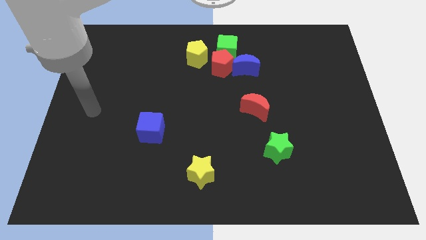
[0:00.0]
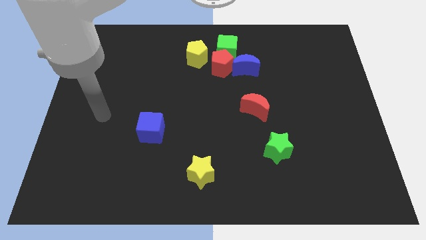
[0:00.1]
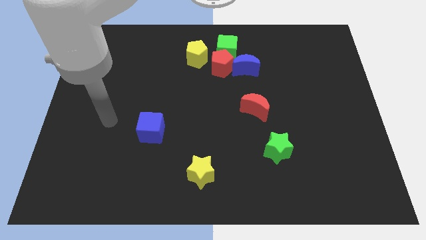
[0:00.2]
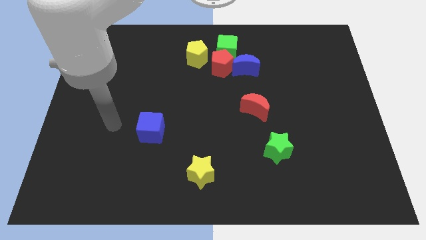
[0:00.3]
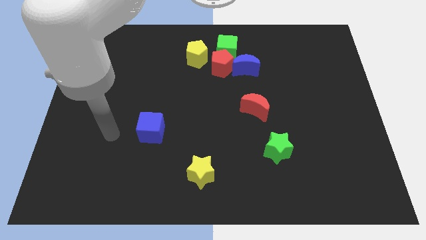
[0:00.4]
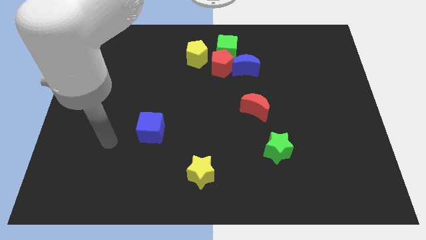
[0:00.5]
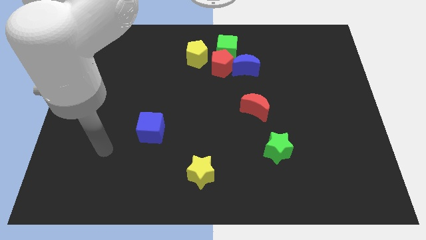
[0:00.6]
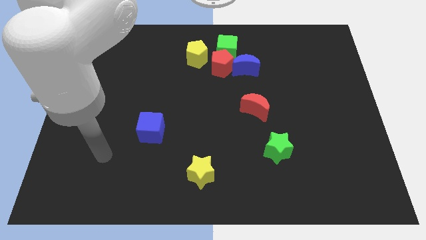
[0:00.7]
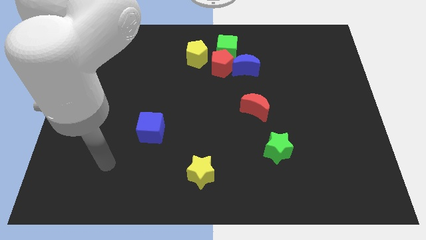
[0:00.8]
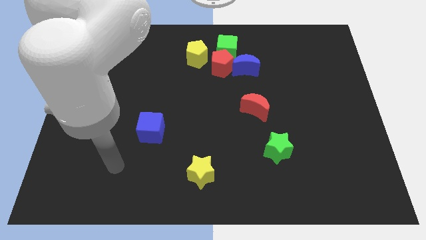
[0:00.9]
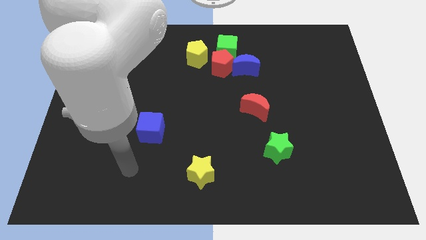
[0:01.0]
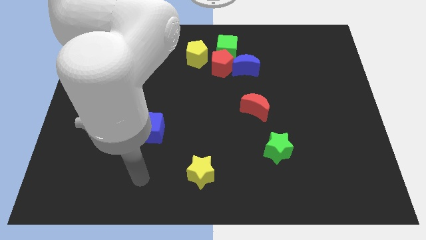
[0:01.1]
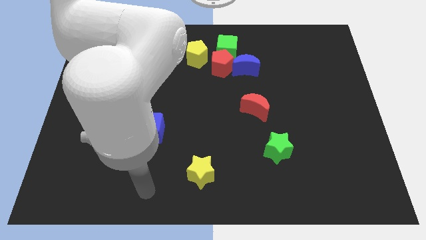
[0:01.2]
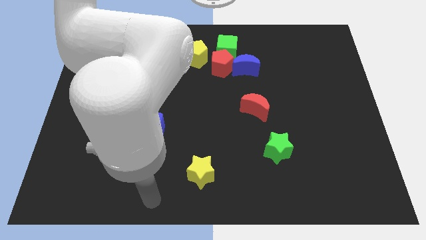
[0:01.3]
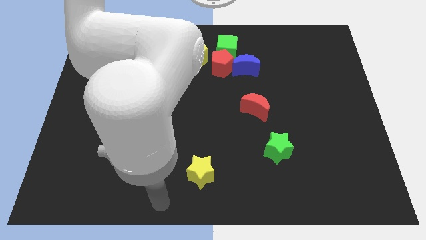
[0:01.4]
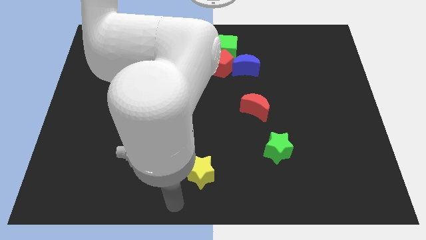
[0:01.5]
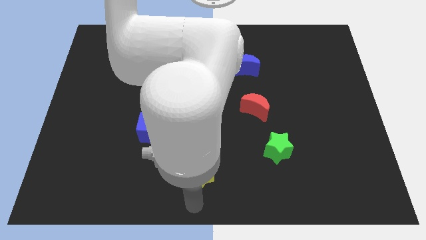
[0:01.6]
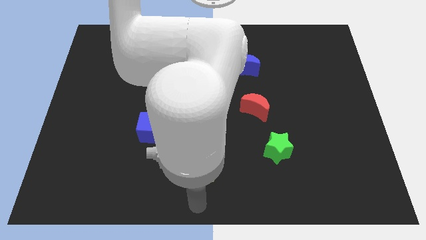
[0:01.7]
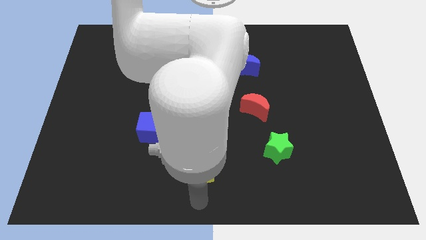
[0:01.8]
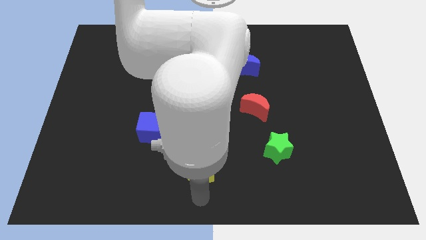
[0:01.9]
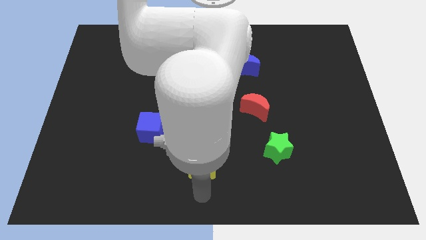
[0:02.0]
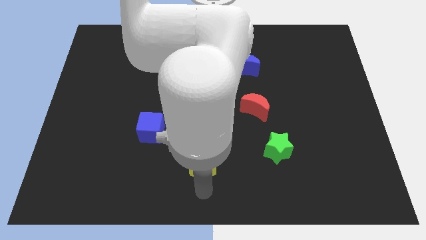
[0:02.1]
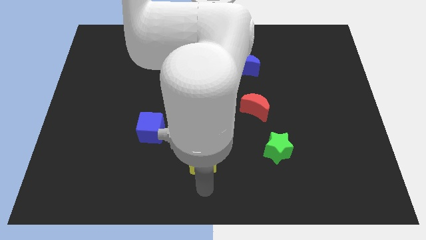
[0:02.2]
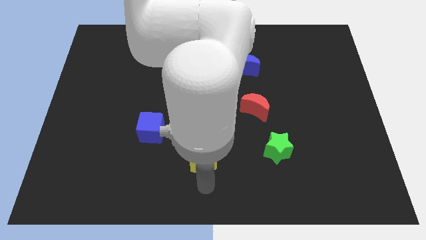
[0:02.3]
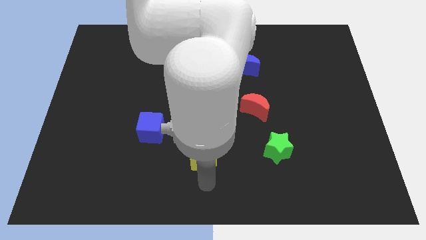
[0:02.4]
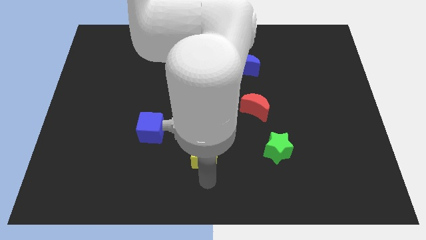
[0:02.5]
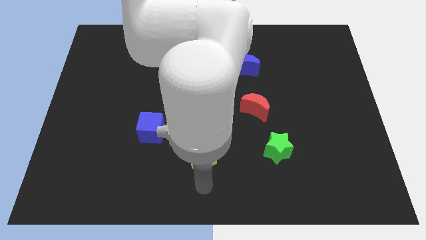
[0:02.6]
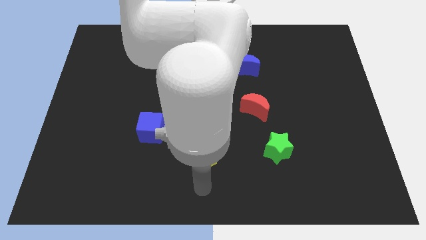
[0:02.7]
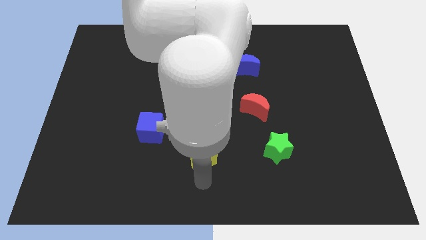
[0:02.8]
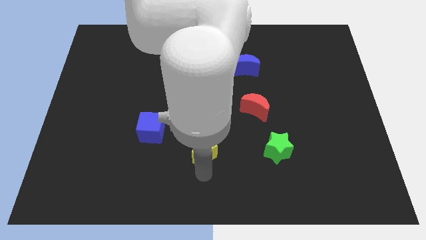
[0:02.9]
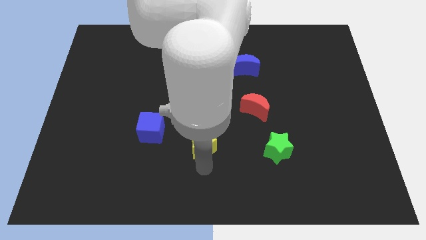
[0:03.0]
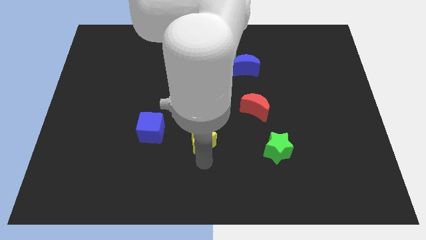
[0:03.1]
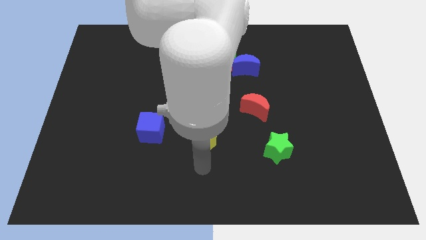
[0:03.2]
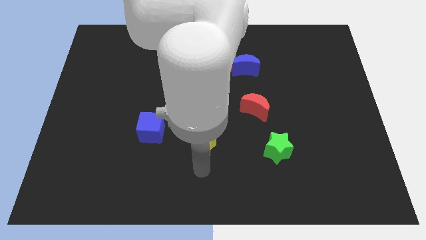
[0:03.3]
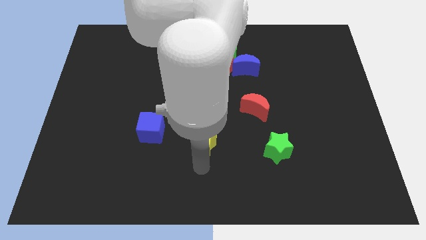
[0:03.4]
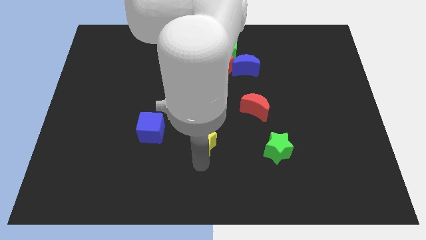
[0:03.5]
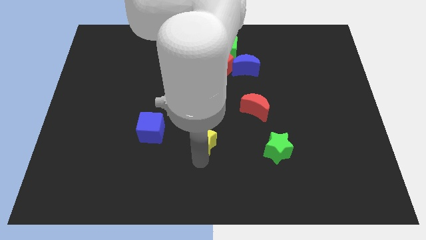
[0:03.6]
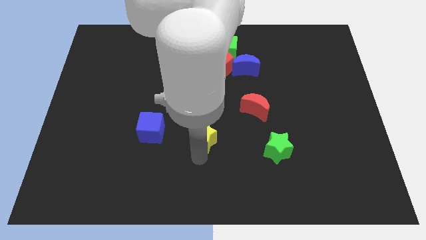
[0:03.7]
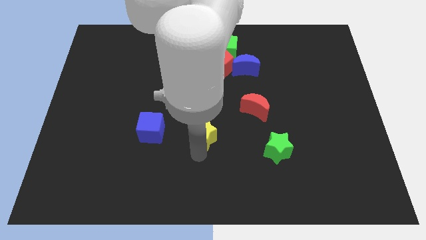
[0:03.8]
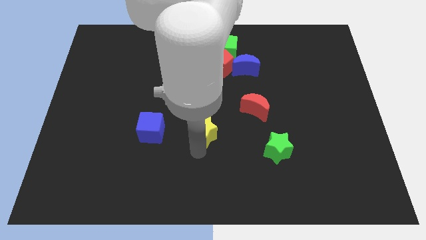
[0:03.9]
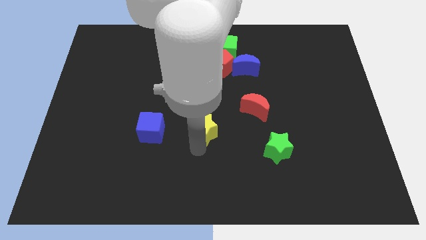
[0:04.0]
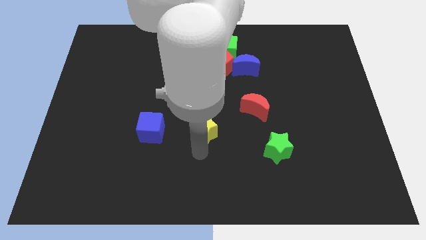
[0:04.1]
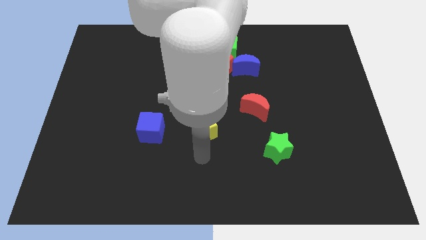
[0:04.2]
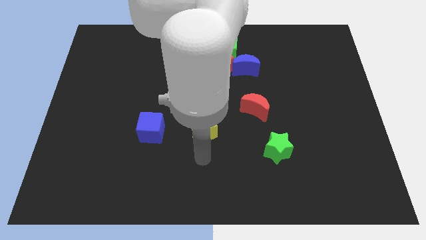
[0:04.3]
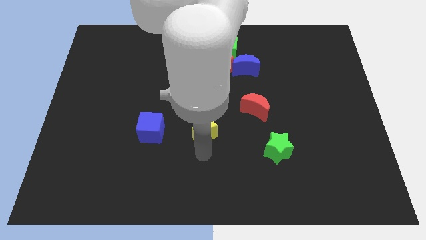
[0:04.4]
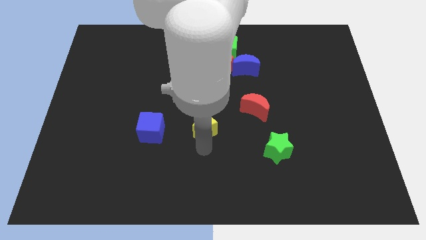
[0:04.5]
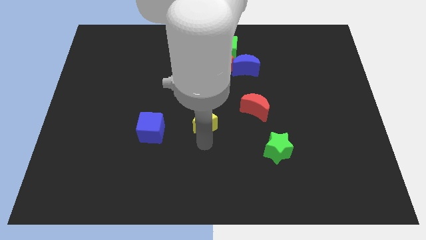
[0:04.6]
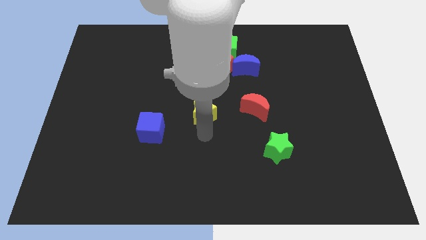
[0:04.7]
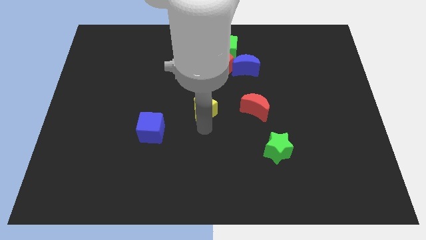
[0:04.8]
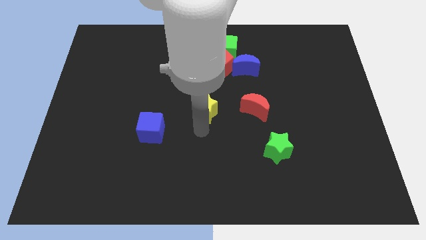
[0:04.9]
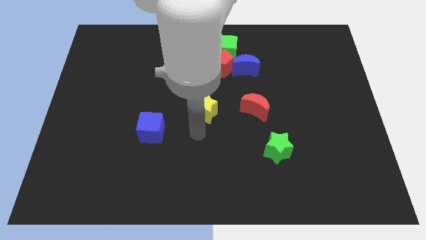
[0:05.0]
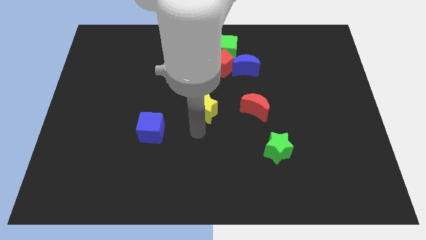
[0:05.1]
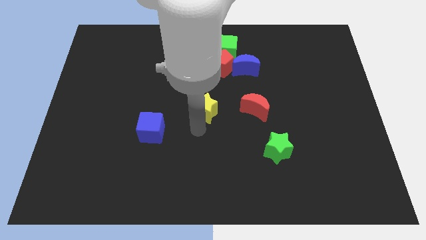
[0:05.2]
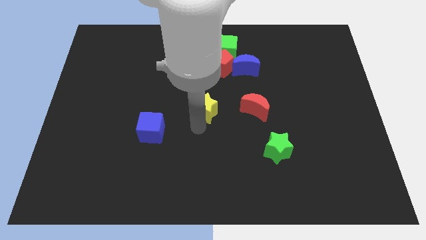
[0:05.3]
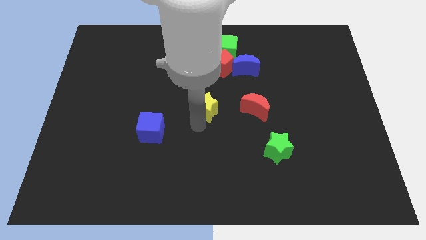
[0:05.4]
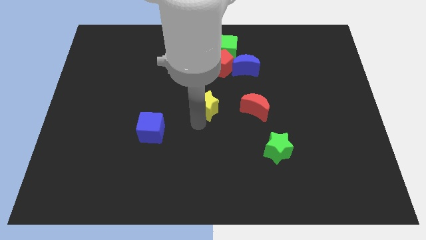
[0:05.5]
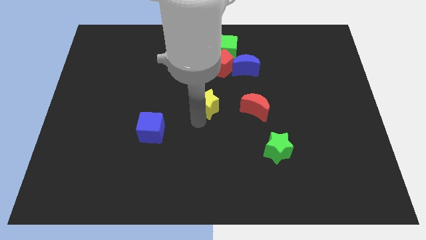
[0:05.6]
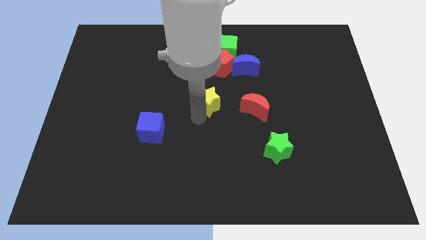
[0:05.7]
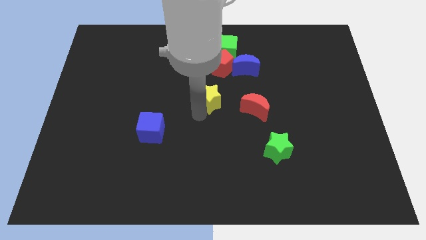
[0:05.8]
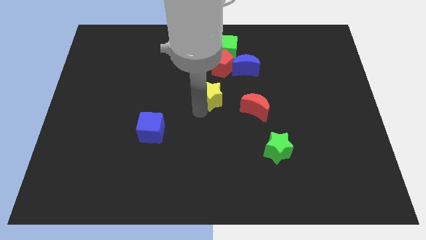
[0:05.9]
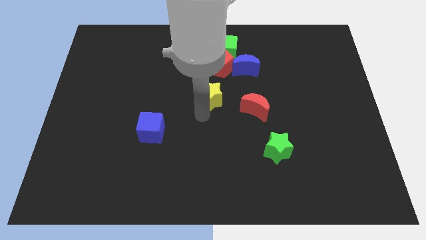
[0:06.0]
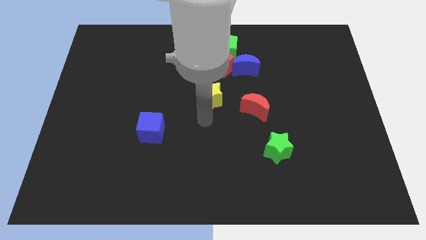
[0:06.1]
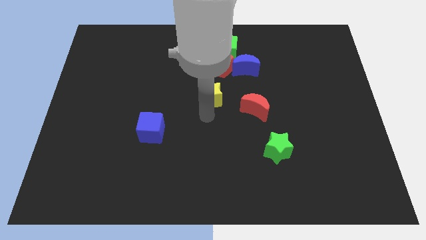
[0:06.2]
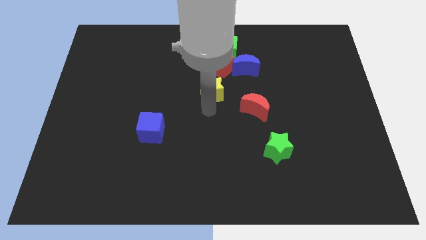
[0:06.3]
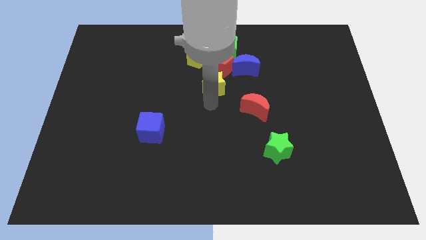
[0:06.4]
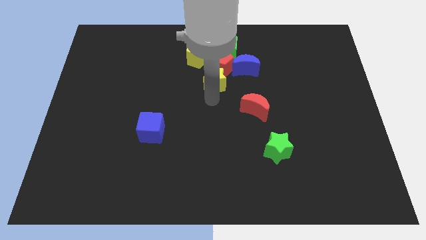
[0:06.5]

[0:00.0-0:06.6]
push the yellow star towards the red pentagon

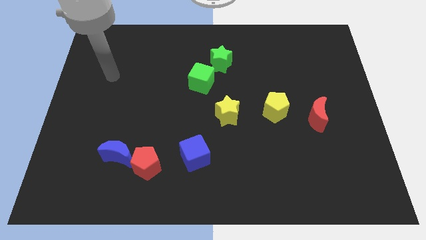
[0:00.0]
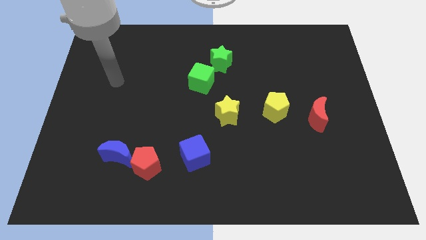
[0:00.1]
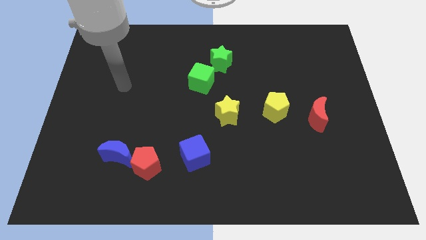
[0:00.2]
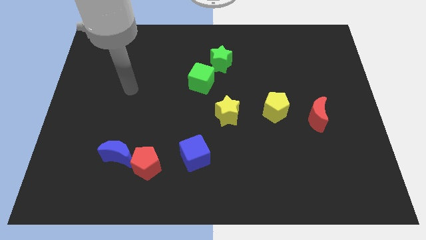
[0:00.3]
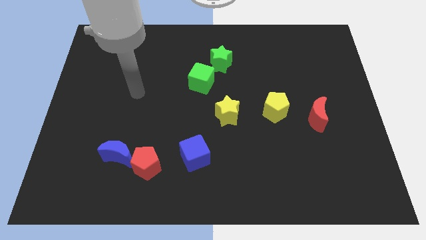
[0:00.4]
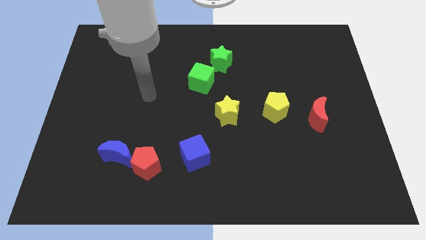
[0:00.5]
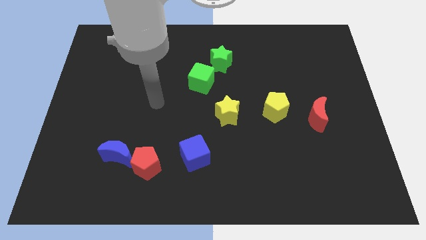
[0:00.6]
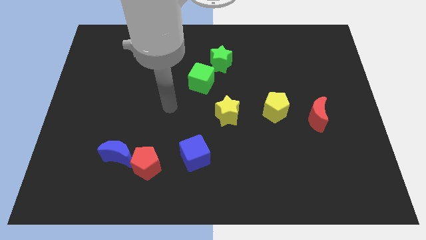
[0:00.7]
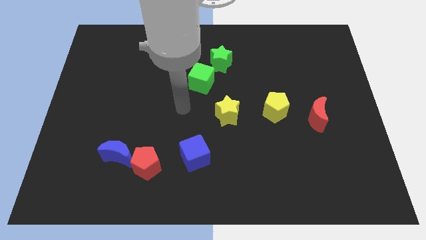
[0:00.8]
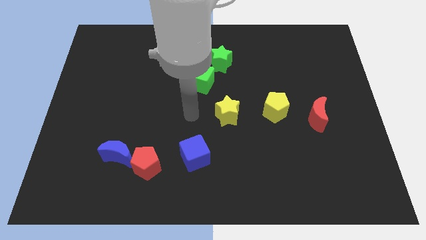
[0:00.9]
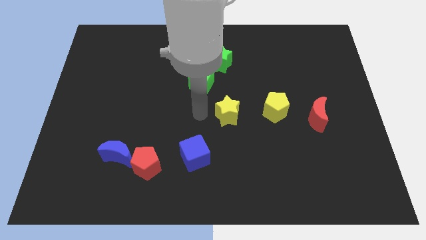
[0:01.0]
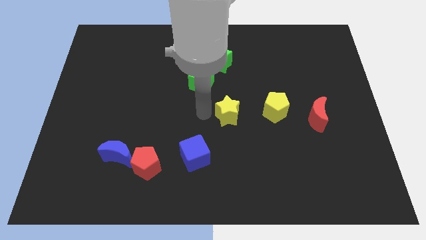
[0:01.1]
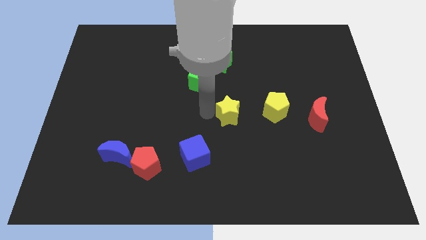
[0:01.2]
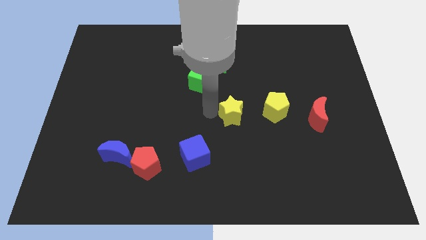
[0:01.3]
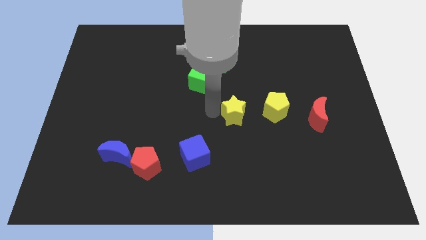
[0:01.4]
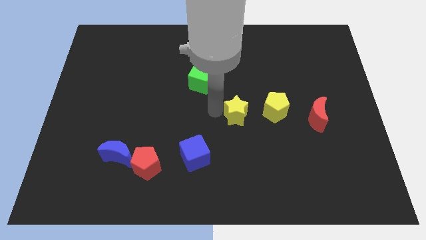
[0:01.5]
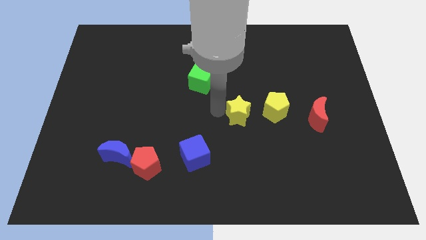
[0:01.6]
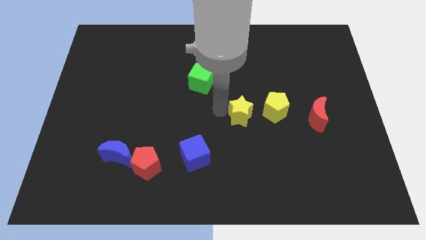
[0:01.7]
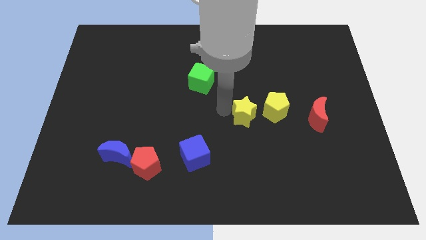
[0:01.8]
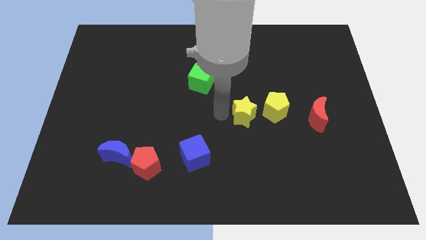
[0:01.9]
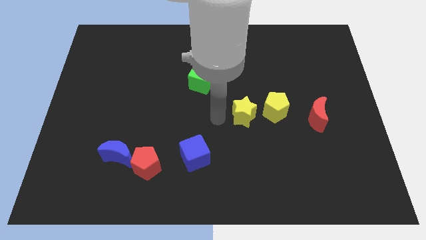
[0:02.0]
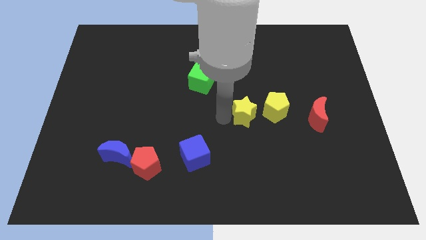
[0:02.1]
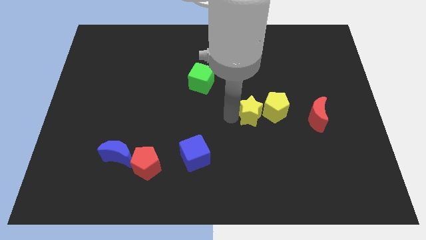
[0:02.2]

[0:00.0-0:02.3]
slide the yellow star next to the yellow pentagon
